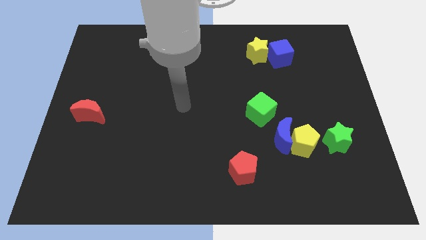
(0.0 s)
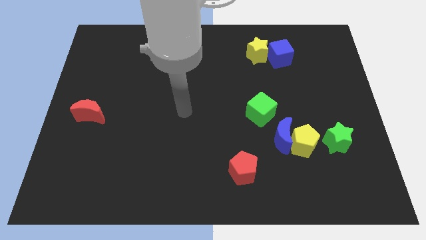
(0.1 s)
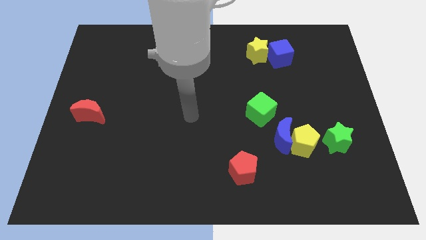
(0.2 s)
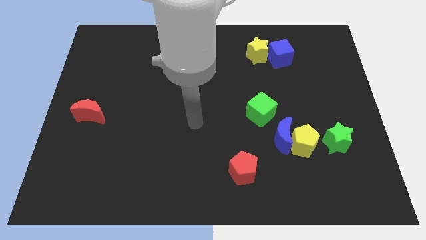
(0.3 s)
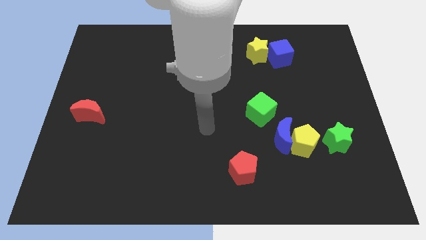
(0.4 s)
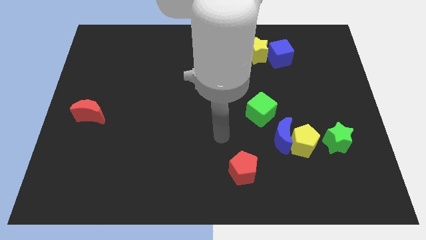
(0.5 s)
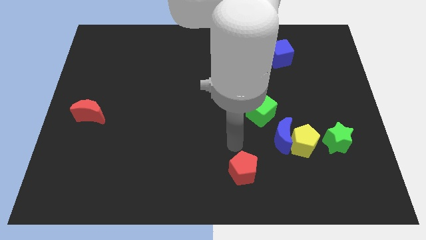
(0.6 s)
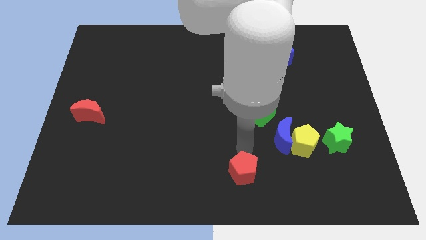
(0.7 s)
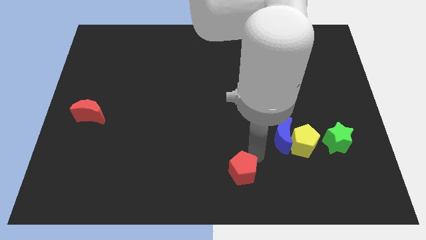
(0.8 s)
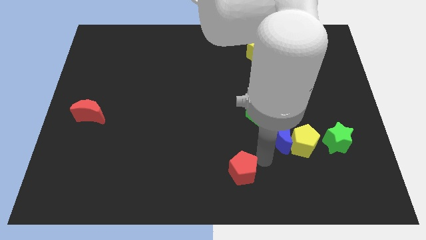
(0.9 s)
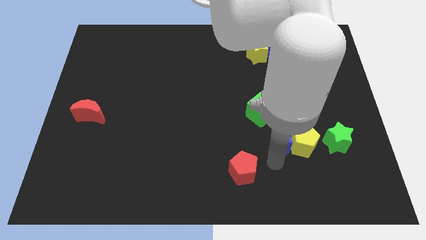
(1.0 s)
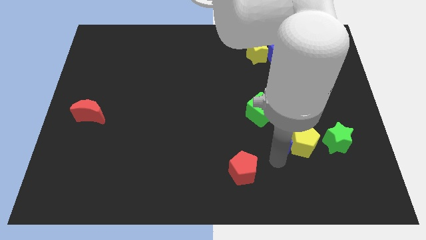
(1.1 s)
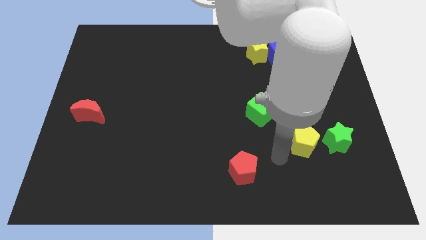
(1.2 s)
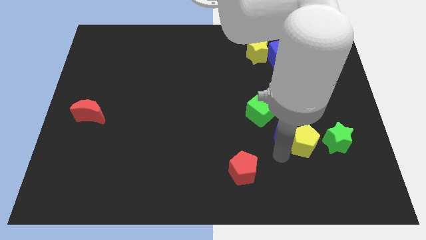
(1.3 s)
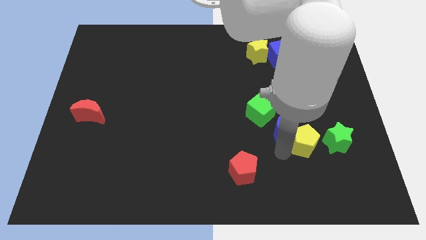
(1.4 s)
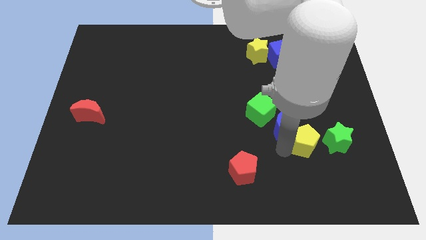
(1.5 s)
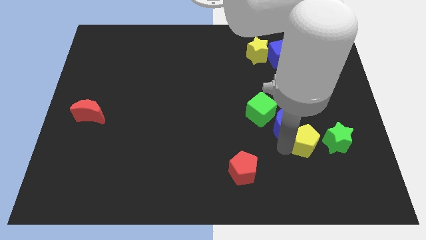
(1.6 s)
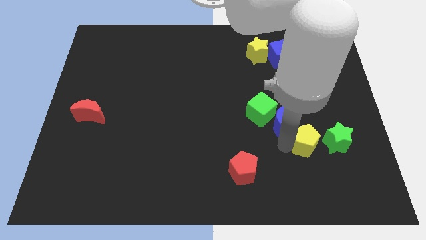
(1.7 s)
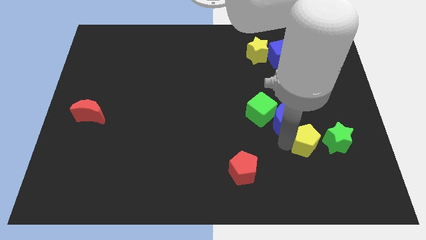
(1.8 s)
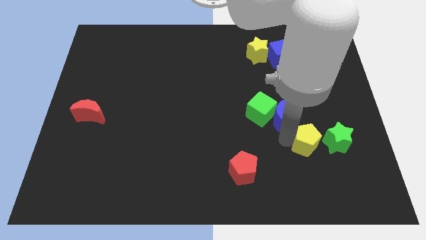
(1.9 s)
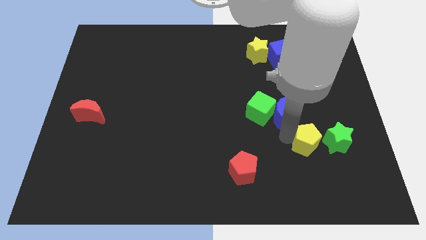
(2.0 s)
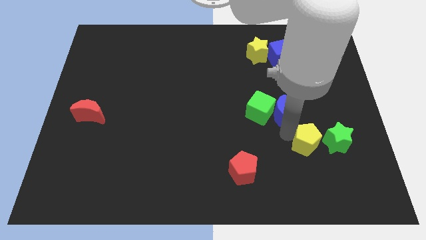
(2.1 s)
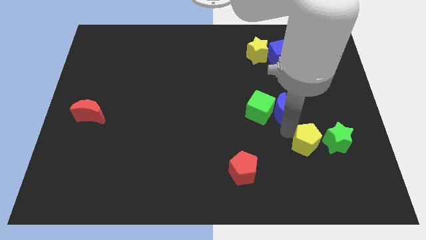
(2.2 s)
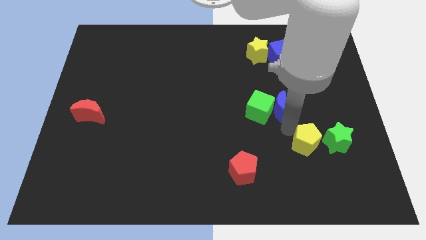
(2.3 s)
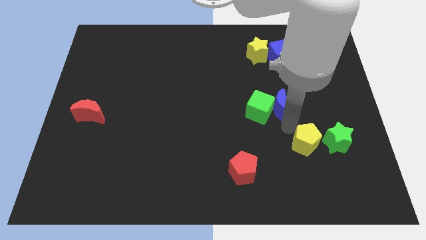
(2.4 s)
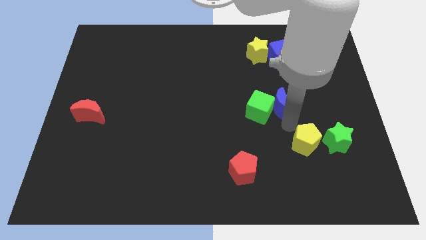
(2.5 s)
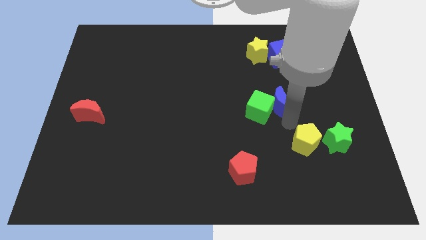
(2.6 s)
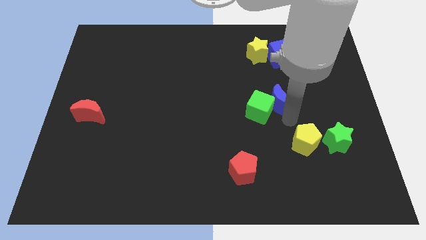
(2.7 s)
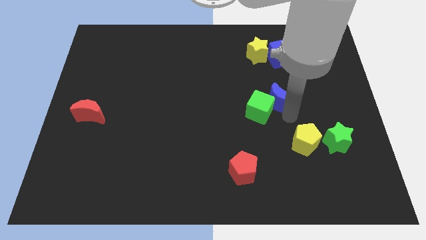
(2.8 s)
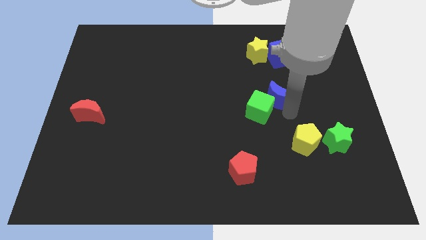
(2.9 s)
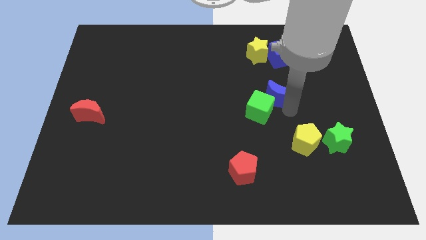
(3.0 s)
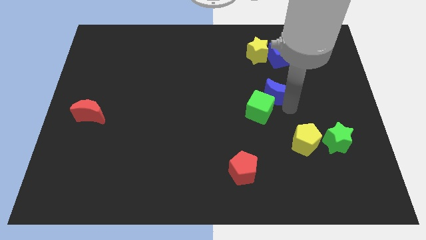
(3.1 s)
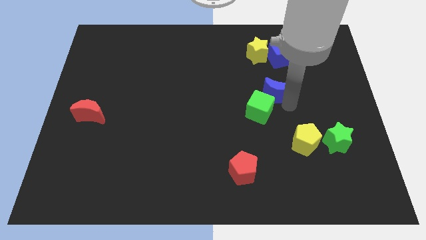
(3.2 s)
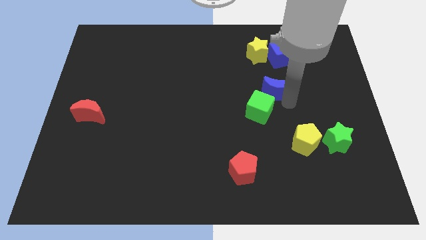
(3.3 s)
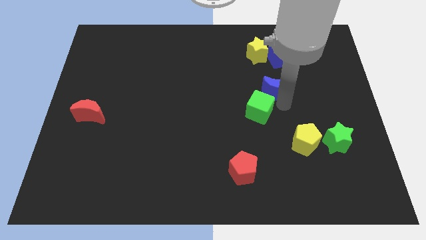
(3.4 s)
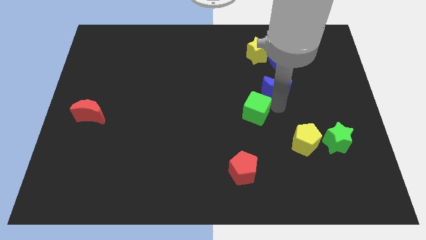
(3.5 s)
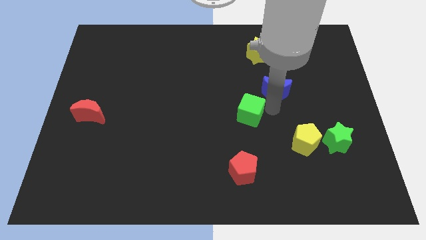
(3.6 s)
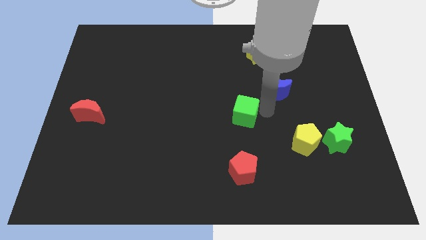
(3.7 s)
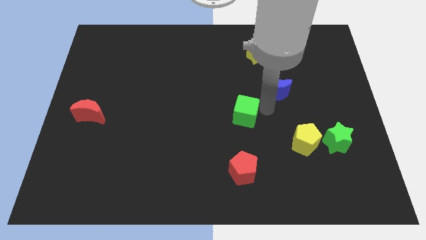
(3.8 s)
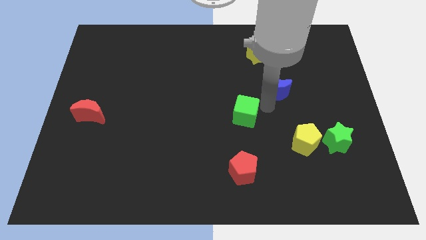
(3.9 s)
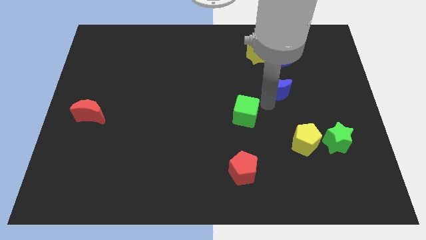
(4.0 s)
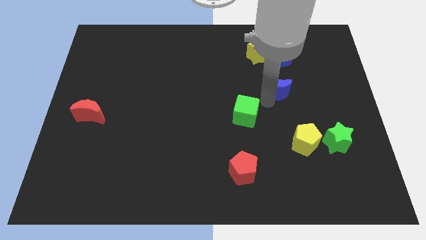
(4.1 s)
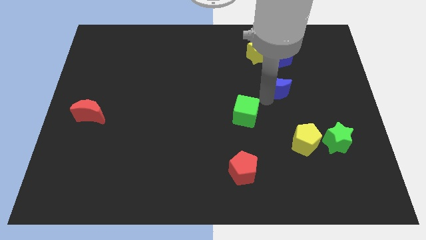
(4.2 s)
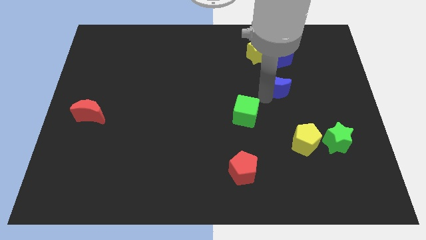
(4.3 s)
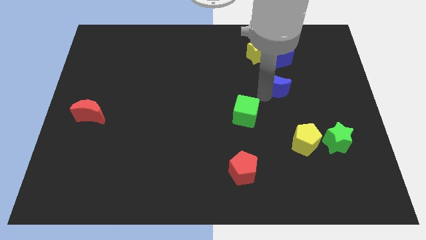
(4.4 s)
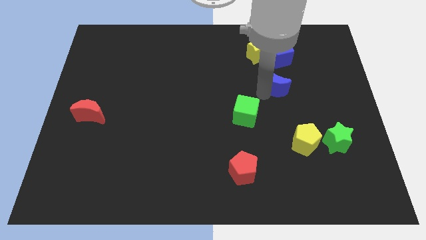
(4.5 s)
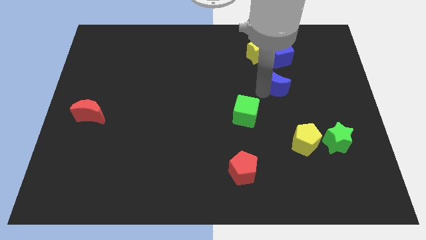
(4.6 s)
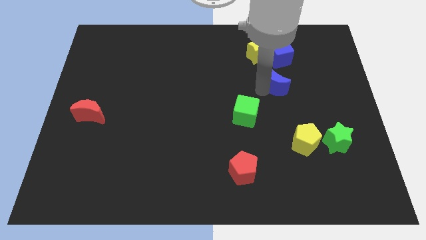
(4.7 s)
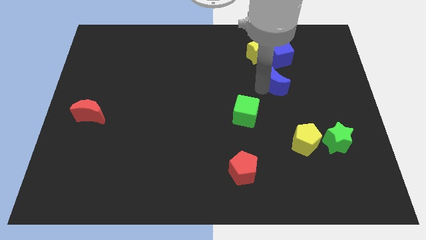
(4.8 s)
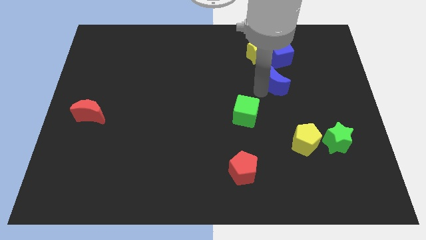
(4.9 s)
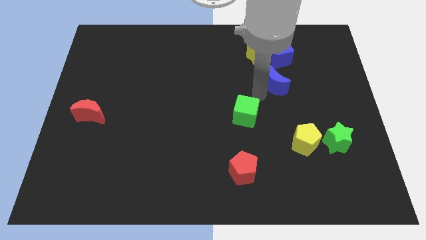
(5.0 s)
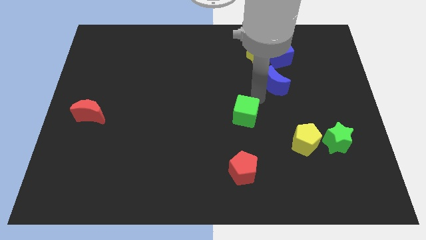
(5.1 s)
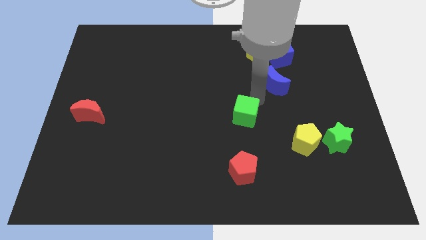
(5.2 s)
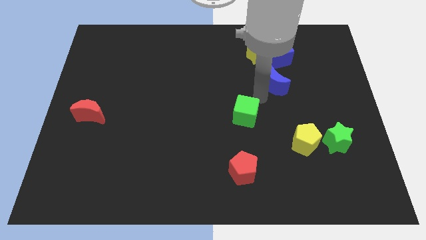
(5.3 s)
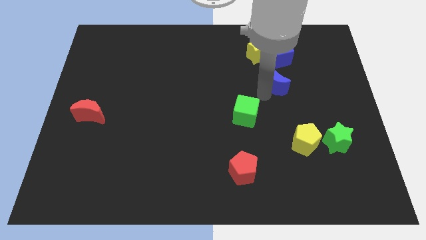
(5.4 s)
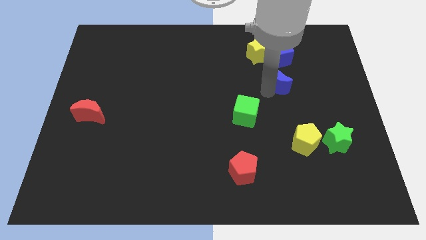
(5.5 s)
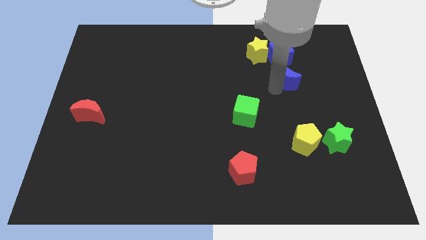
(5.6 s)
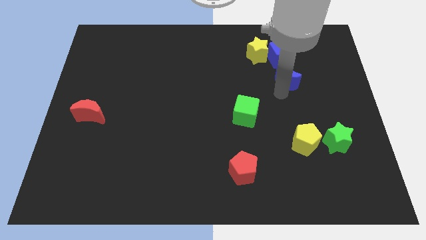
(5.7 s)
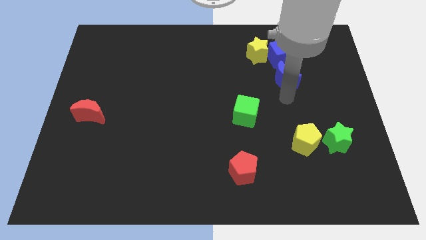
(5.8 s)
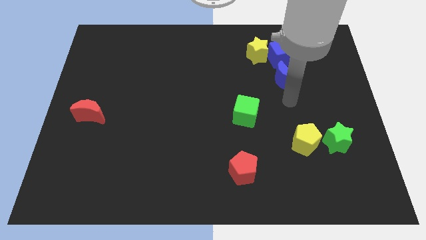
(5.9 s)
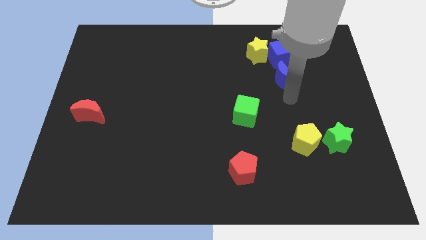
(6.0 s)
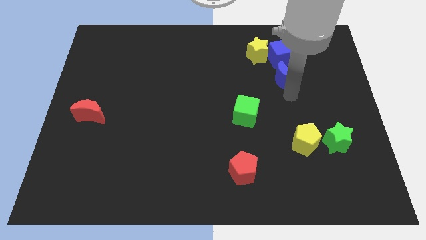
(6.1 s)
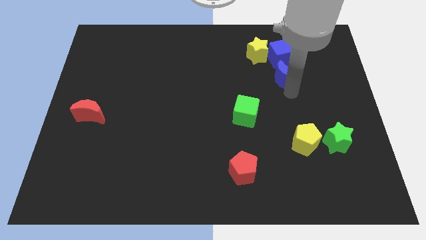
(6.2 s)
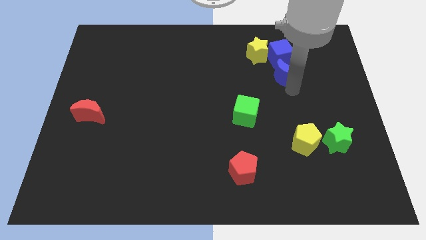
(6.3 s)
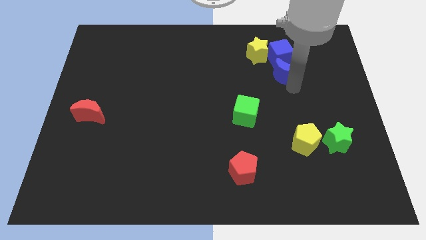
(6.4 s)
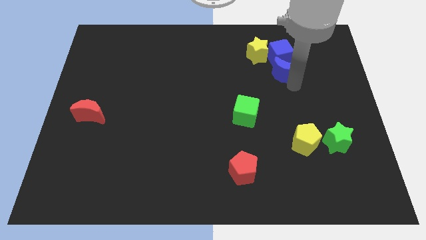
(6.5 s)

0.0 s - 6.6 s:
move the blue moon towards the blue cube

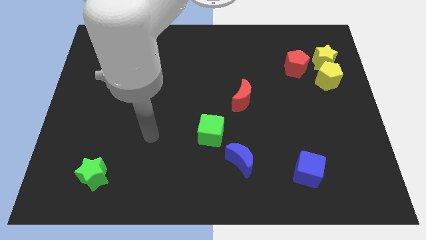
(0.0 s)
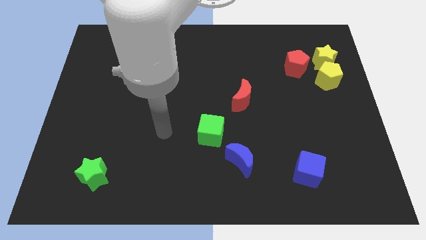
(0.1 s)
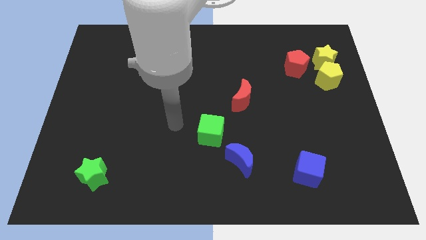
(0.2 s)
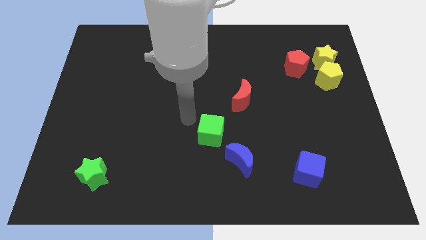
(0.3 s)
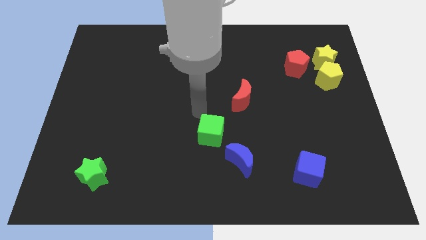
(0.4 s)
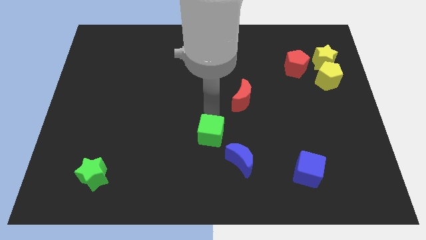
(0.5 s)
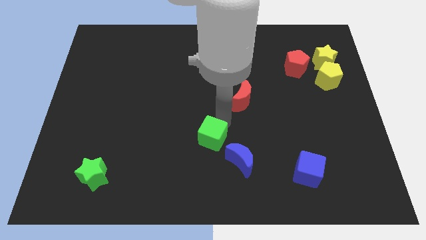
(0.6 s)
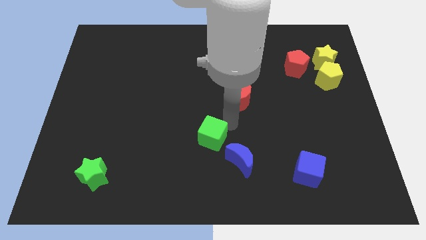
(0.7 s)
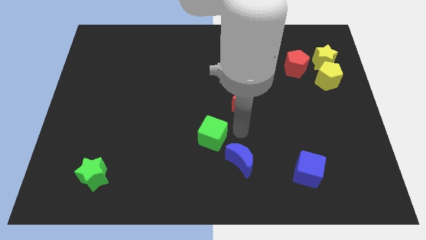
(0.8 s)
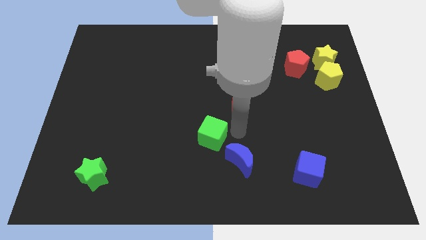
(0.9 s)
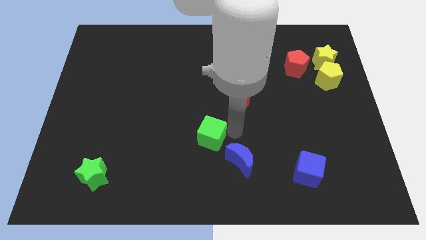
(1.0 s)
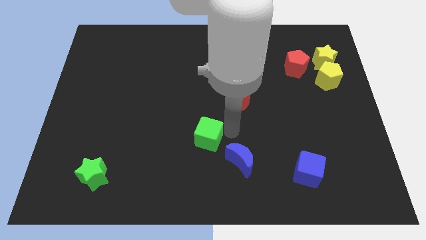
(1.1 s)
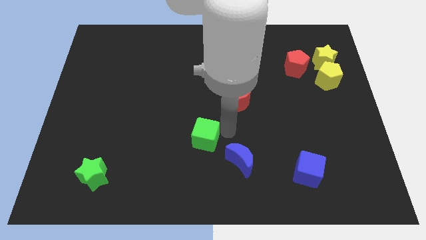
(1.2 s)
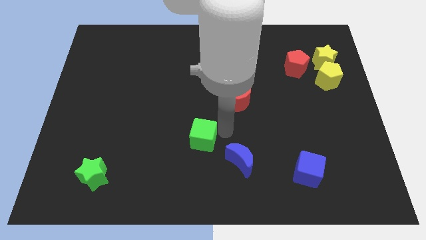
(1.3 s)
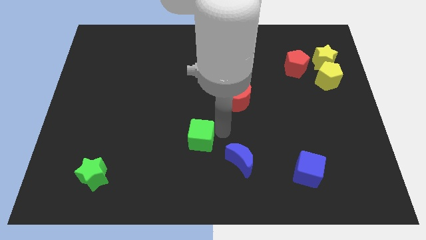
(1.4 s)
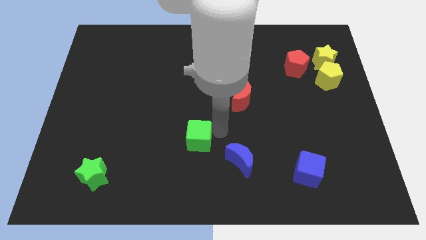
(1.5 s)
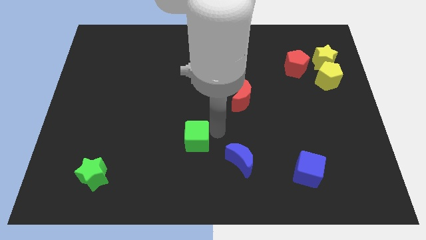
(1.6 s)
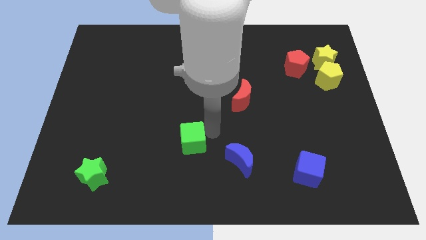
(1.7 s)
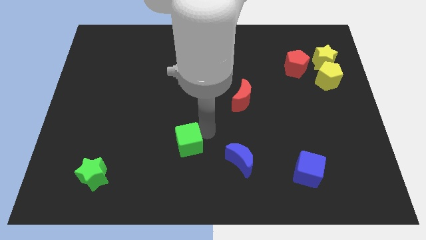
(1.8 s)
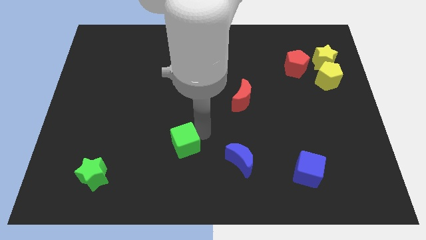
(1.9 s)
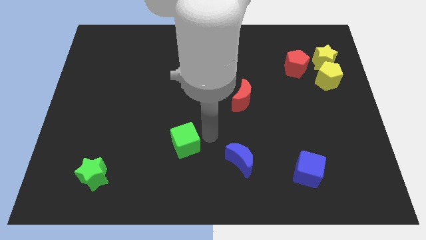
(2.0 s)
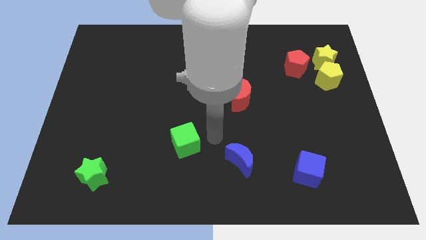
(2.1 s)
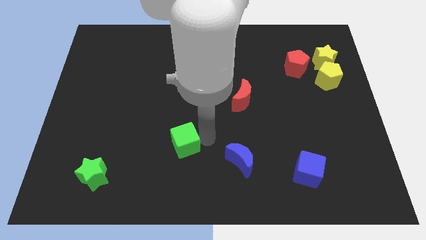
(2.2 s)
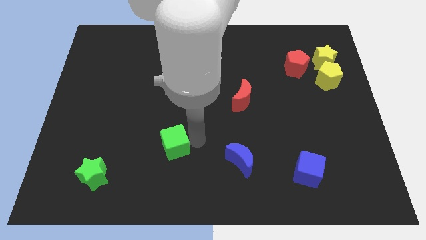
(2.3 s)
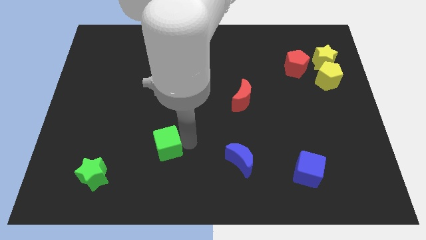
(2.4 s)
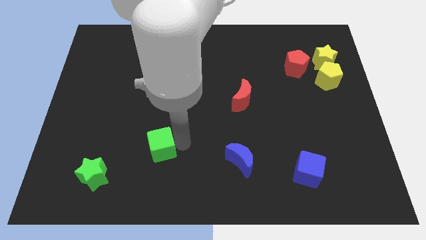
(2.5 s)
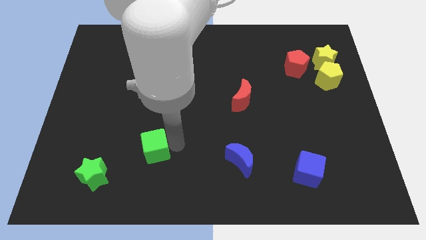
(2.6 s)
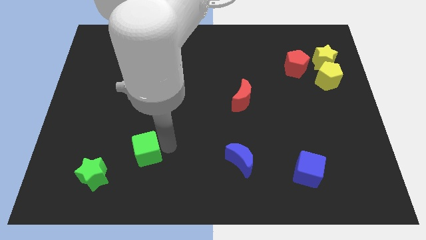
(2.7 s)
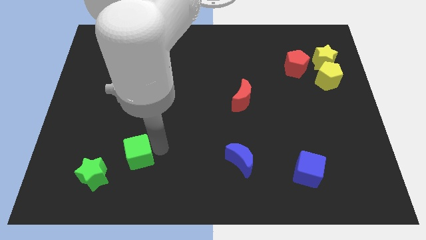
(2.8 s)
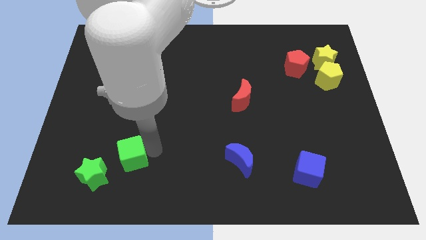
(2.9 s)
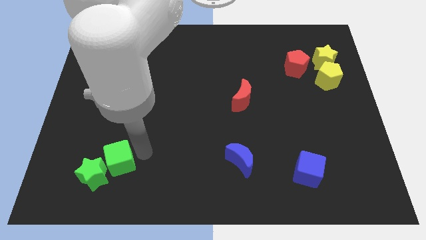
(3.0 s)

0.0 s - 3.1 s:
move the green cube close to the green star
